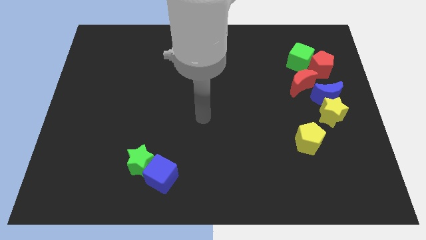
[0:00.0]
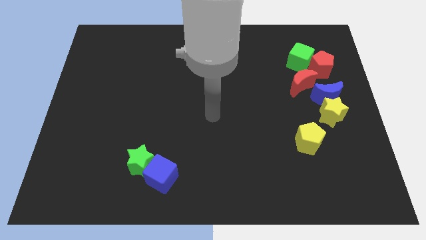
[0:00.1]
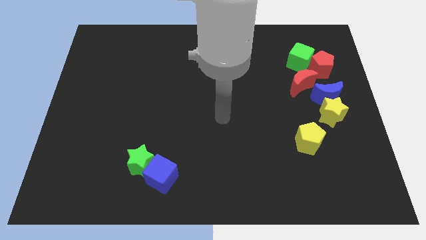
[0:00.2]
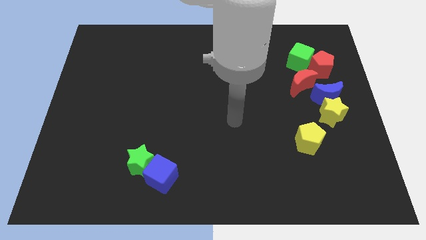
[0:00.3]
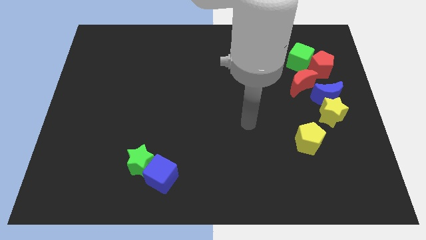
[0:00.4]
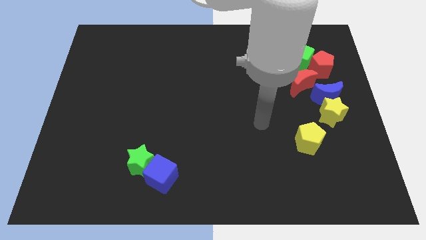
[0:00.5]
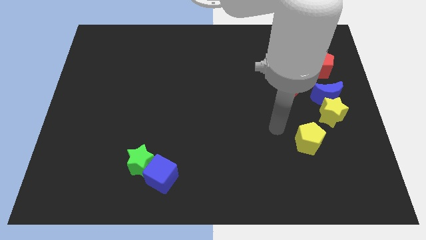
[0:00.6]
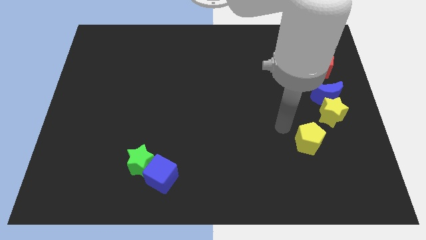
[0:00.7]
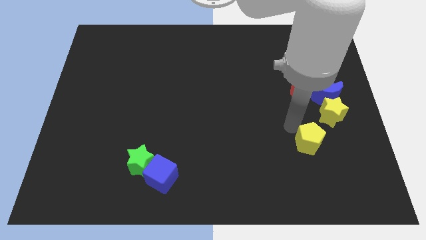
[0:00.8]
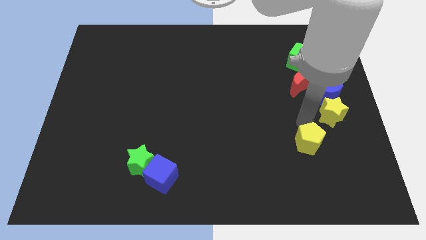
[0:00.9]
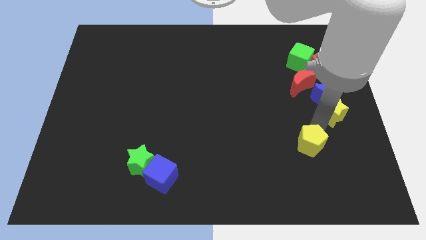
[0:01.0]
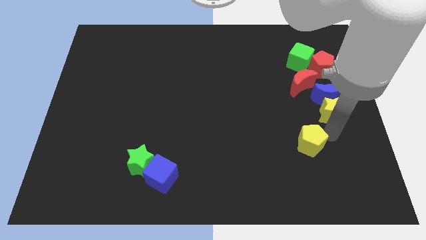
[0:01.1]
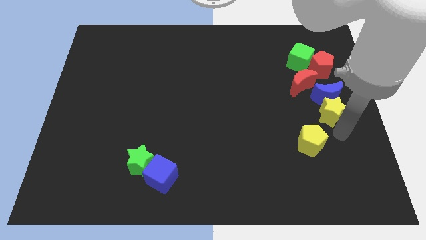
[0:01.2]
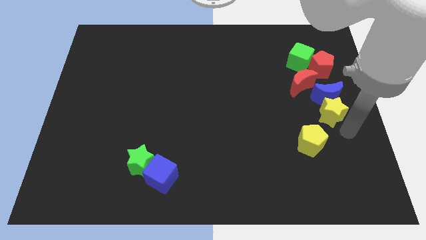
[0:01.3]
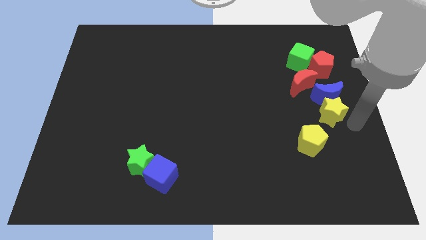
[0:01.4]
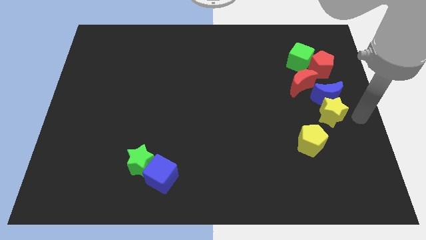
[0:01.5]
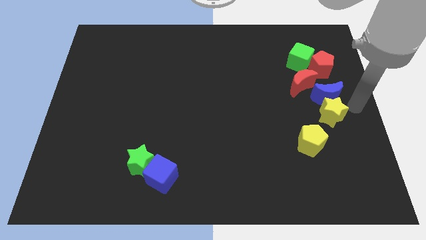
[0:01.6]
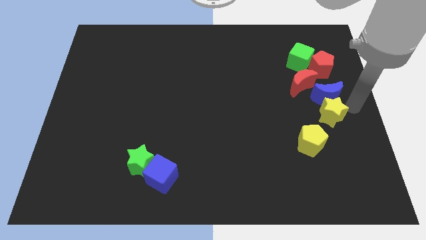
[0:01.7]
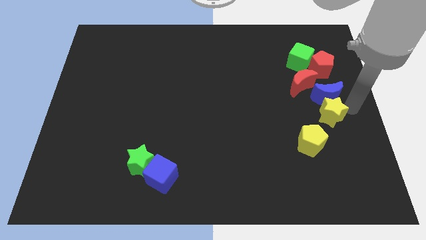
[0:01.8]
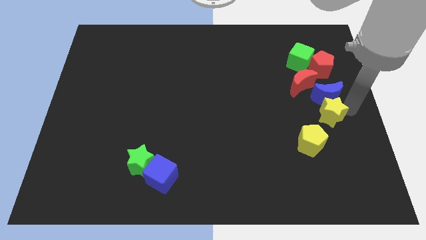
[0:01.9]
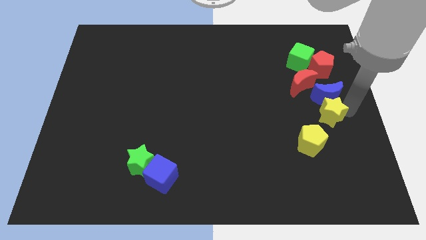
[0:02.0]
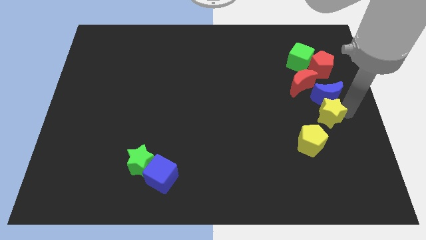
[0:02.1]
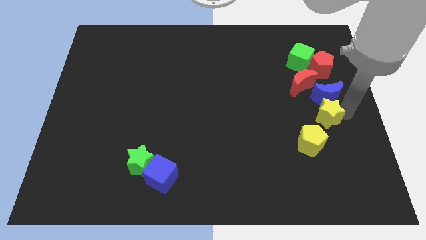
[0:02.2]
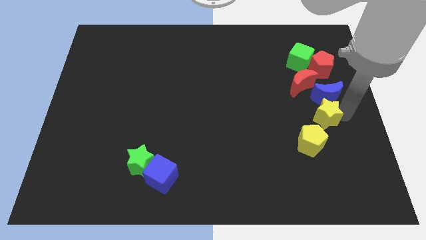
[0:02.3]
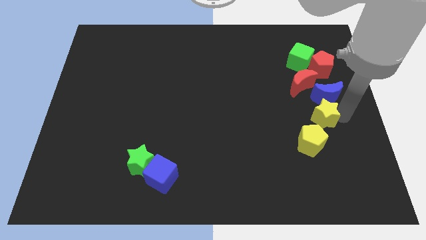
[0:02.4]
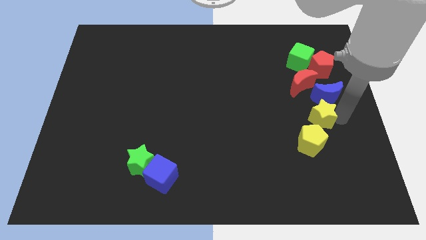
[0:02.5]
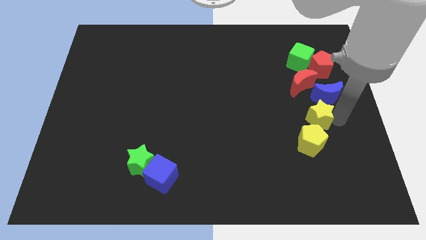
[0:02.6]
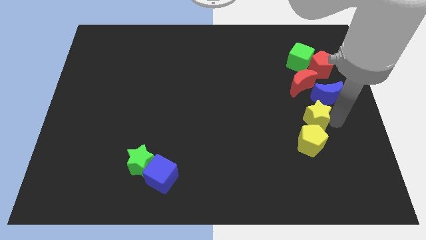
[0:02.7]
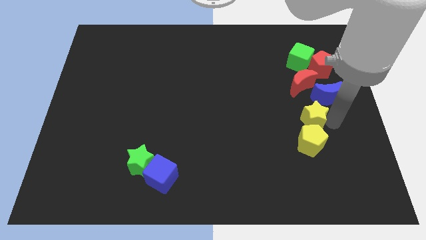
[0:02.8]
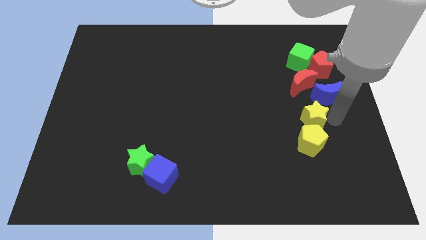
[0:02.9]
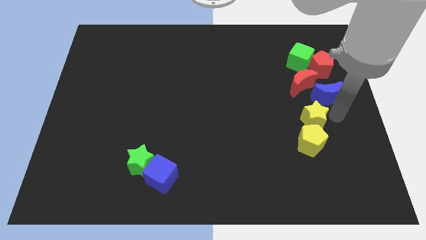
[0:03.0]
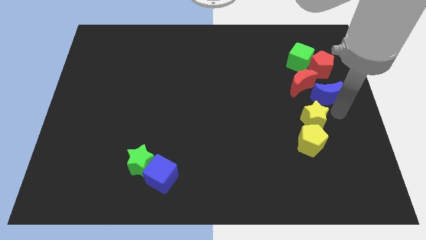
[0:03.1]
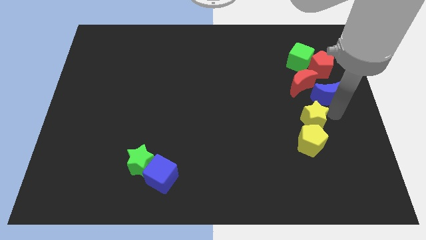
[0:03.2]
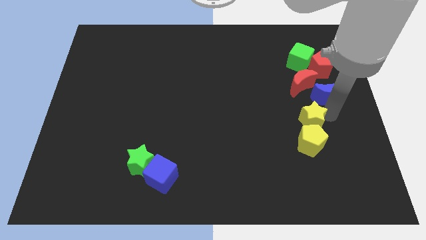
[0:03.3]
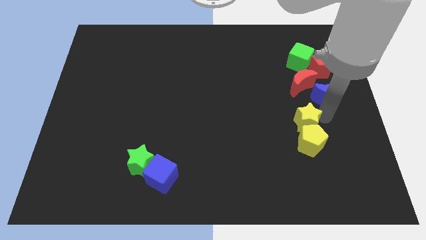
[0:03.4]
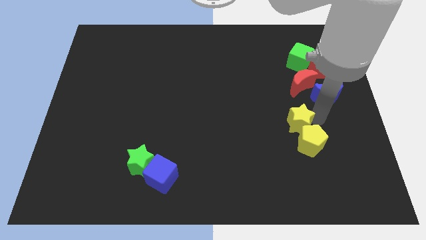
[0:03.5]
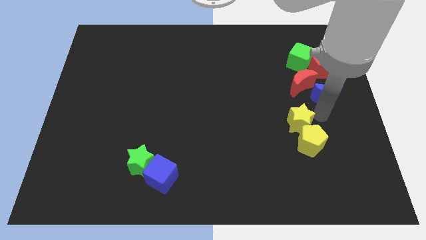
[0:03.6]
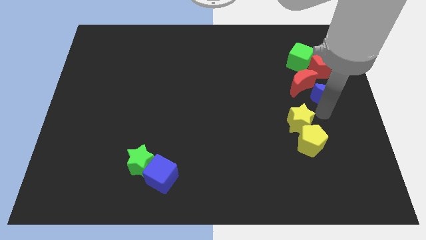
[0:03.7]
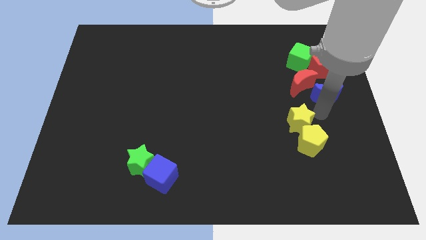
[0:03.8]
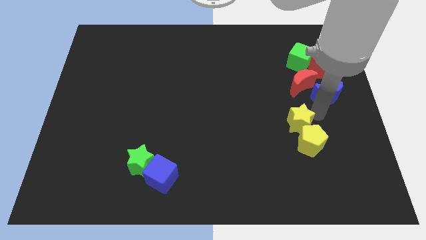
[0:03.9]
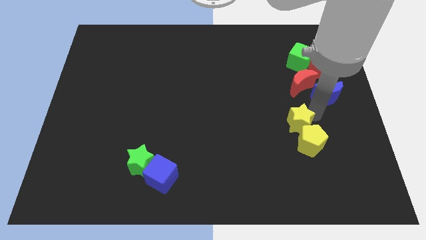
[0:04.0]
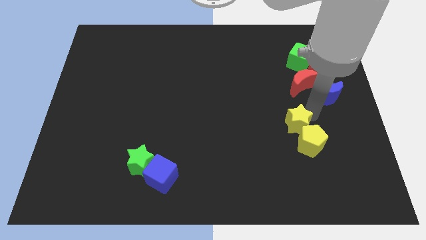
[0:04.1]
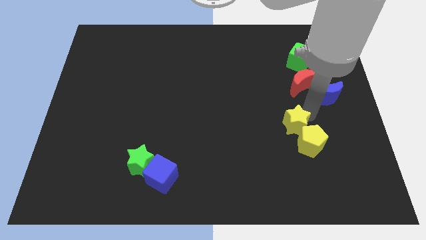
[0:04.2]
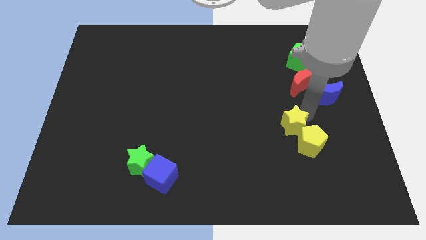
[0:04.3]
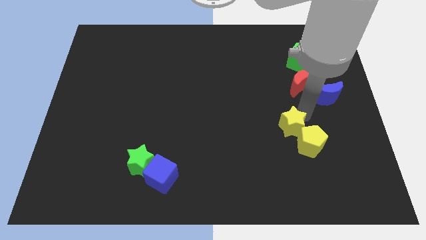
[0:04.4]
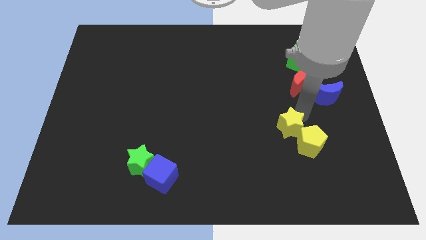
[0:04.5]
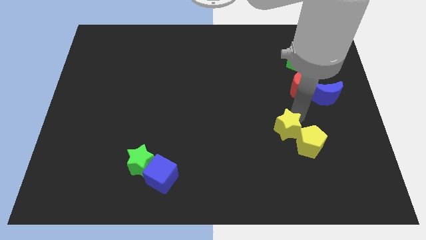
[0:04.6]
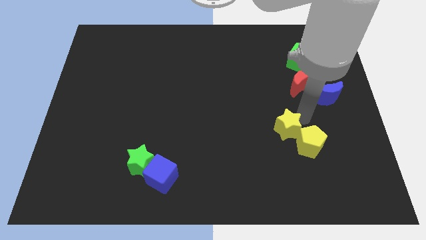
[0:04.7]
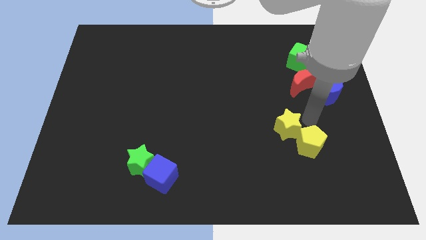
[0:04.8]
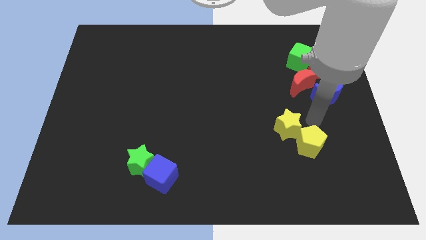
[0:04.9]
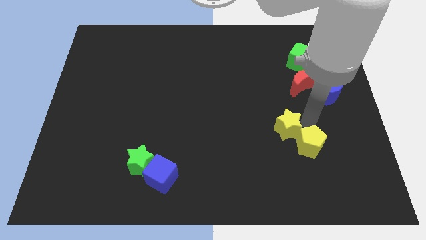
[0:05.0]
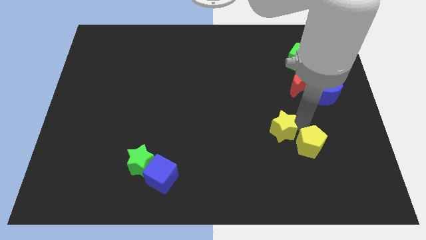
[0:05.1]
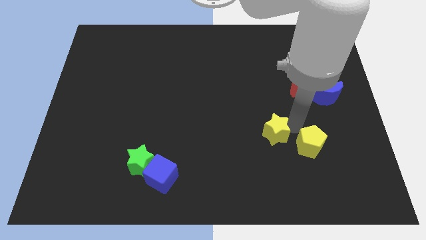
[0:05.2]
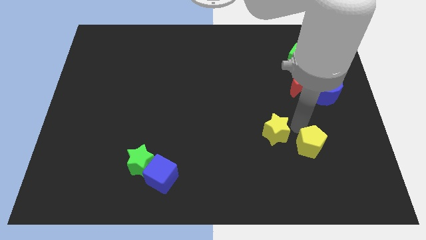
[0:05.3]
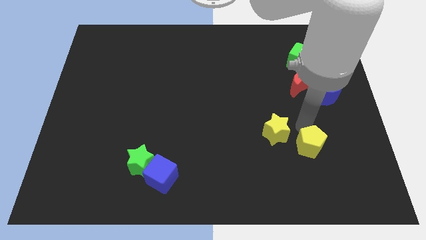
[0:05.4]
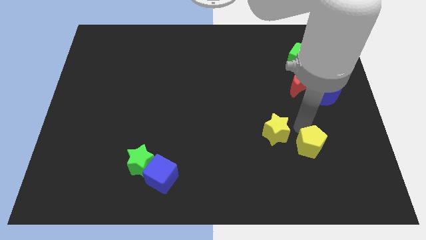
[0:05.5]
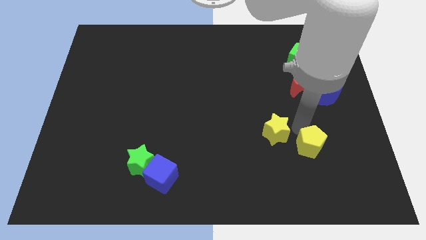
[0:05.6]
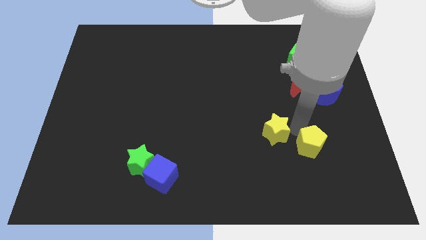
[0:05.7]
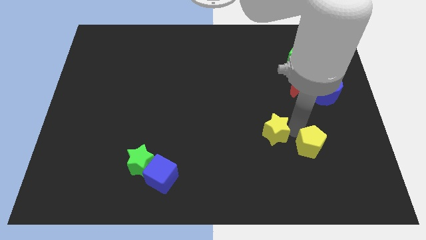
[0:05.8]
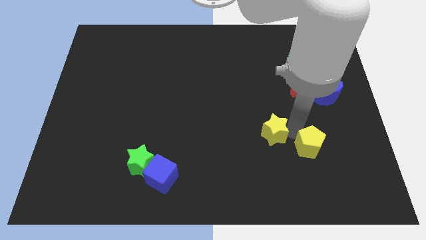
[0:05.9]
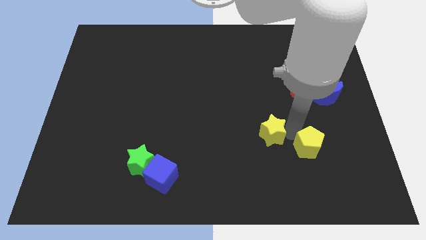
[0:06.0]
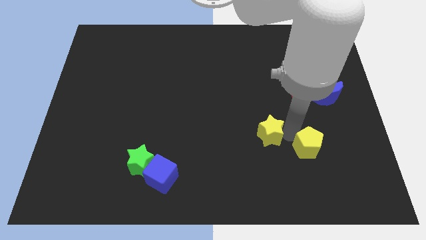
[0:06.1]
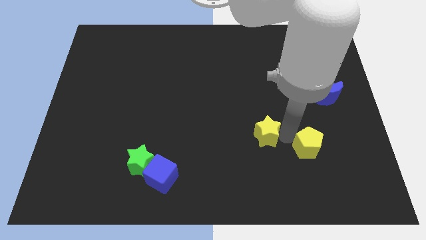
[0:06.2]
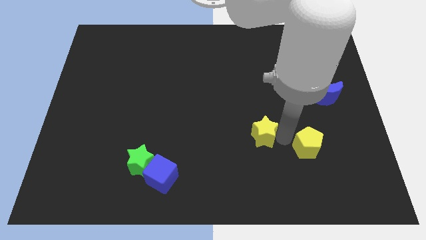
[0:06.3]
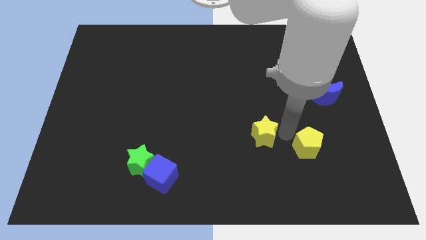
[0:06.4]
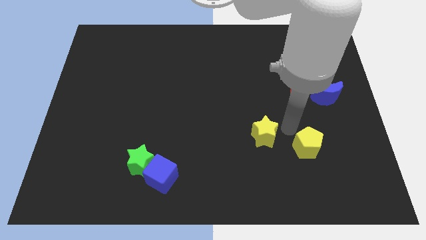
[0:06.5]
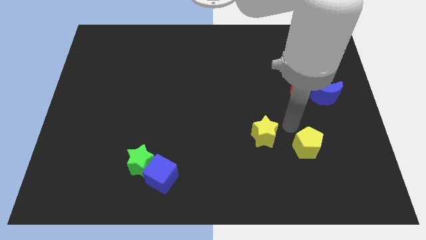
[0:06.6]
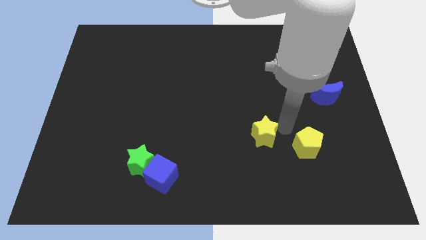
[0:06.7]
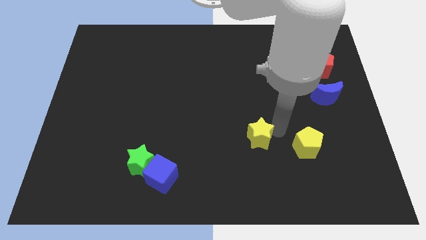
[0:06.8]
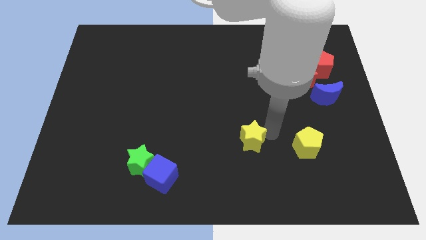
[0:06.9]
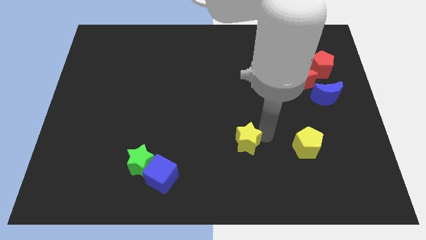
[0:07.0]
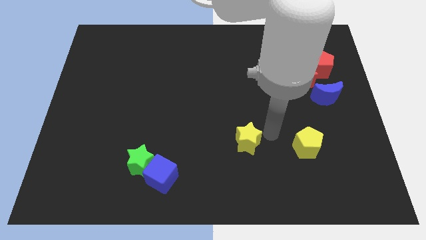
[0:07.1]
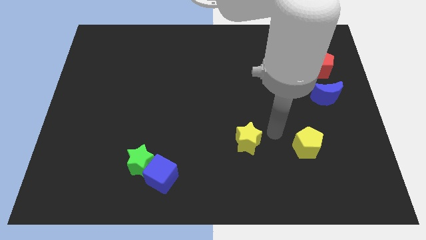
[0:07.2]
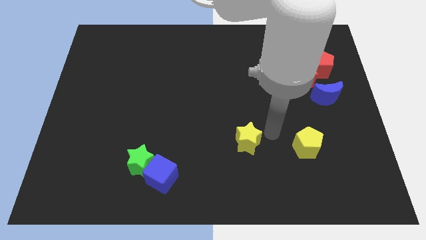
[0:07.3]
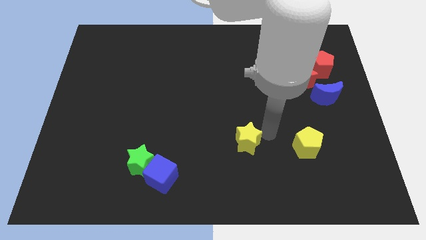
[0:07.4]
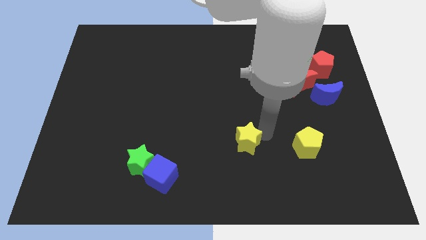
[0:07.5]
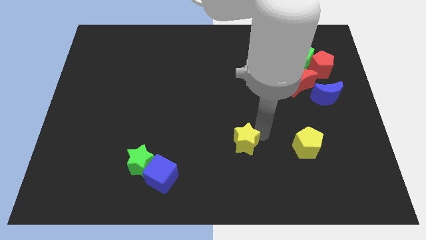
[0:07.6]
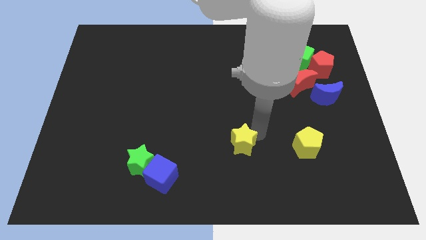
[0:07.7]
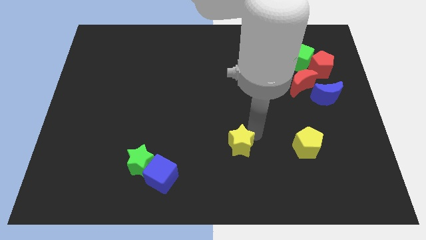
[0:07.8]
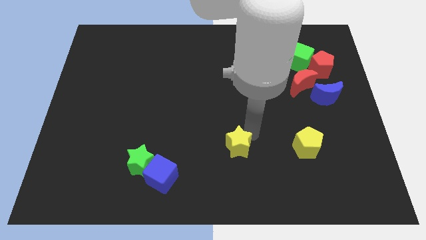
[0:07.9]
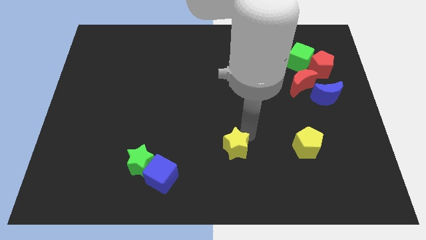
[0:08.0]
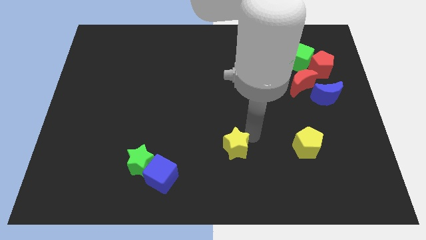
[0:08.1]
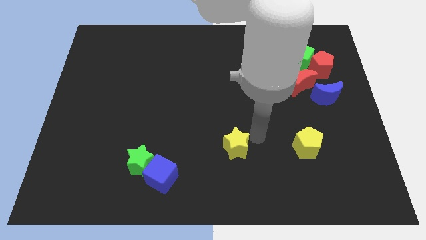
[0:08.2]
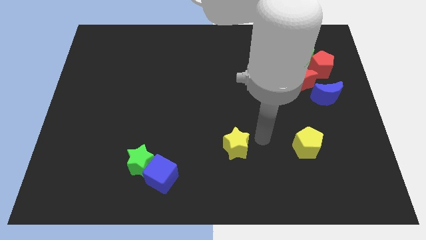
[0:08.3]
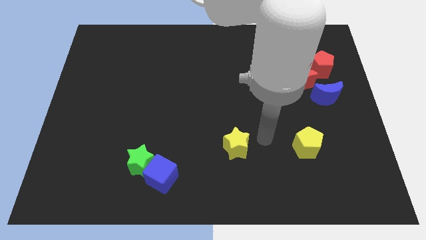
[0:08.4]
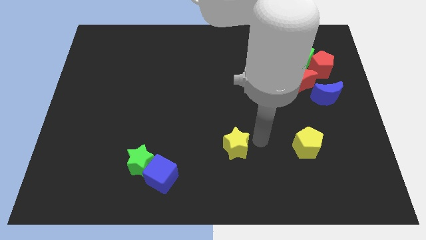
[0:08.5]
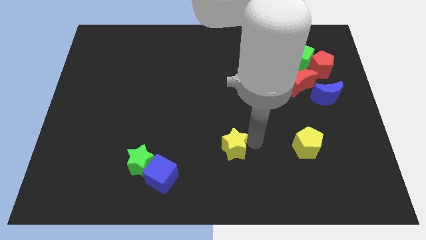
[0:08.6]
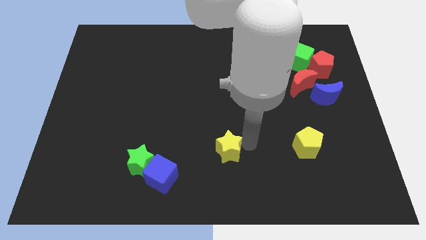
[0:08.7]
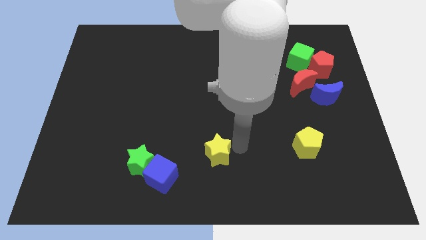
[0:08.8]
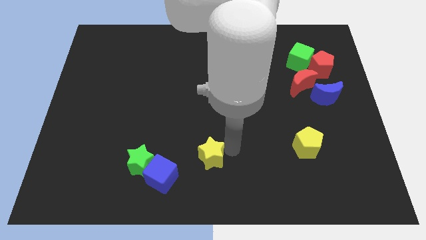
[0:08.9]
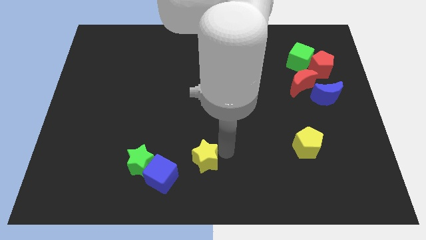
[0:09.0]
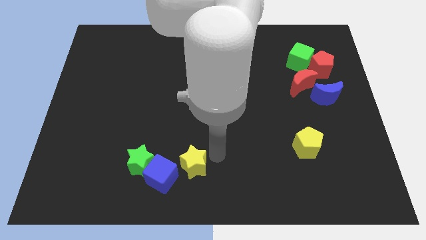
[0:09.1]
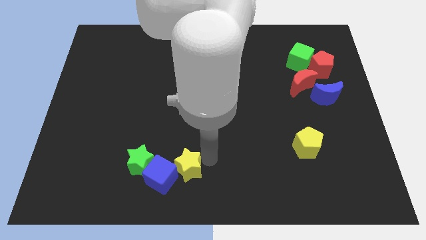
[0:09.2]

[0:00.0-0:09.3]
move the yellow star next to the blue cube
